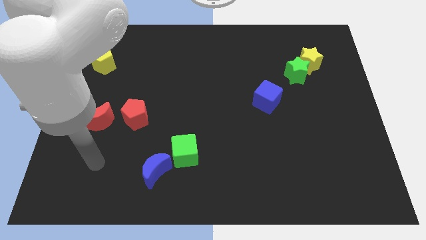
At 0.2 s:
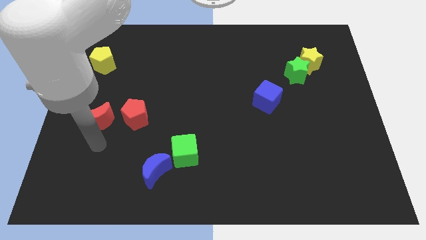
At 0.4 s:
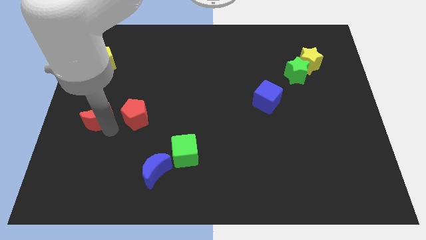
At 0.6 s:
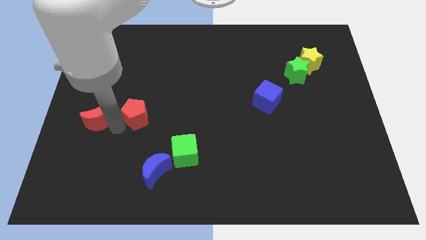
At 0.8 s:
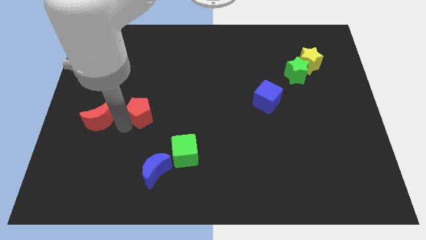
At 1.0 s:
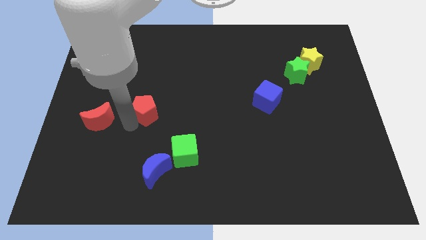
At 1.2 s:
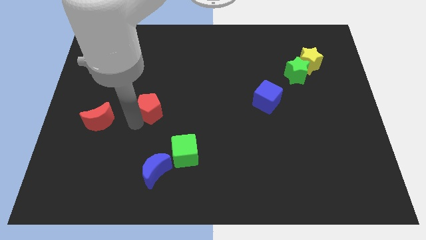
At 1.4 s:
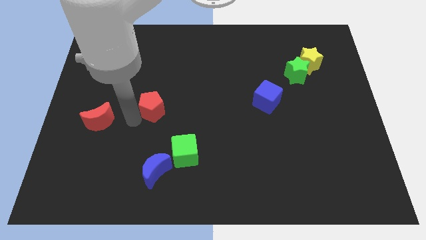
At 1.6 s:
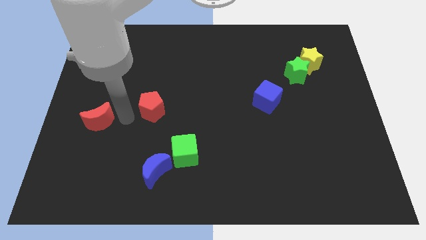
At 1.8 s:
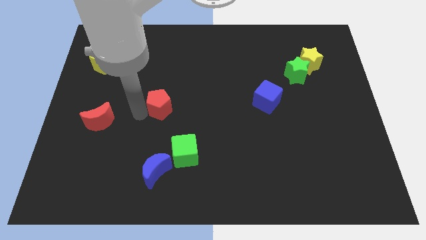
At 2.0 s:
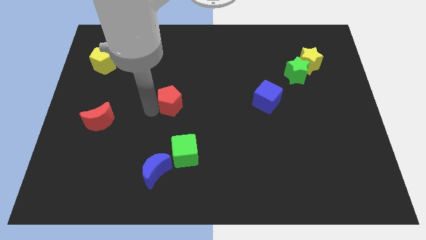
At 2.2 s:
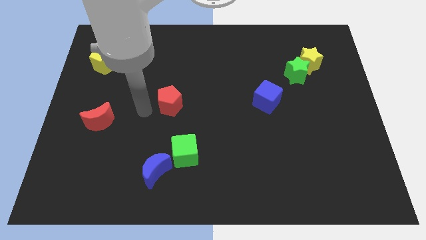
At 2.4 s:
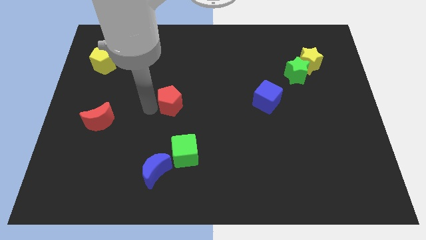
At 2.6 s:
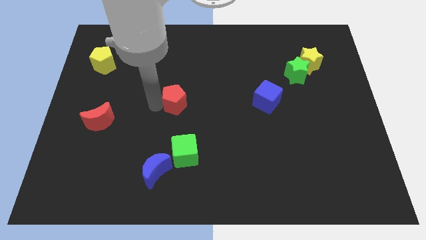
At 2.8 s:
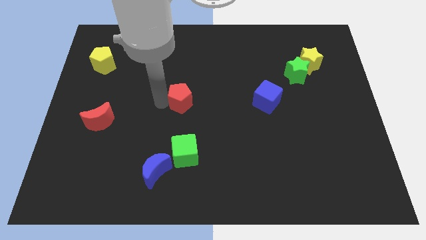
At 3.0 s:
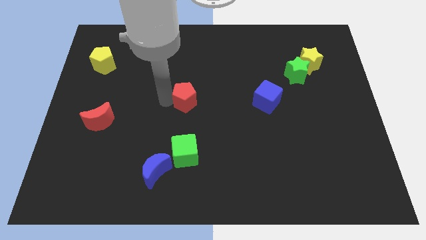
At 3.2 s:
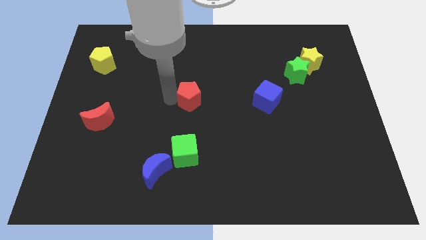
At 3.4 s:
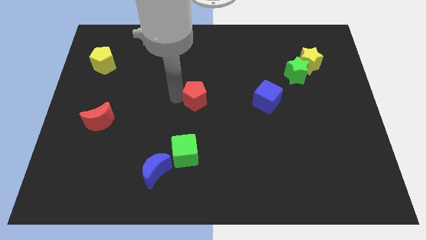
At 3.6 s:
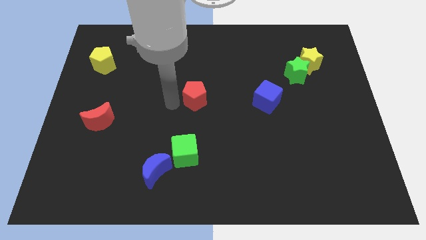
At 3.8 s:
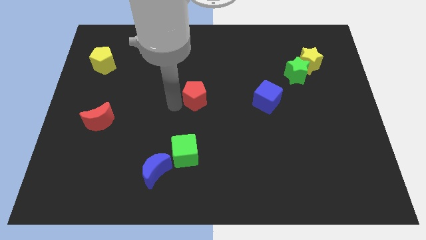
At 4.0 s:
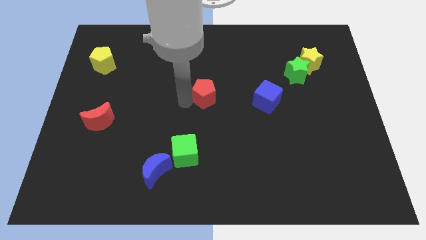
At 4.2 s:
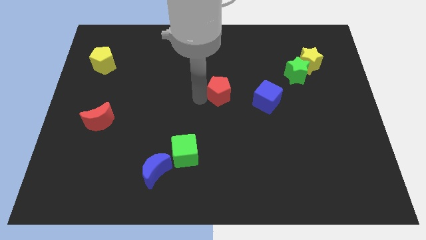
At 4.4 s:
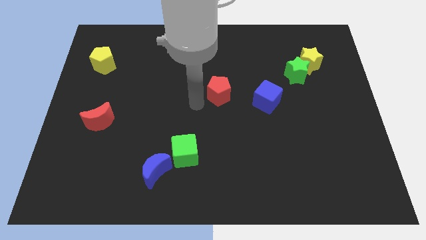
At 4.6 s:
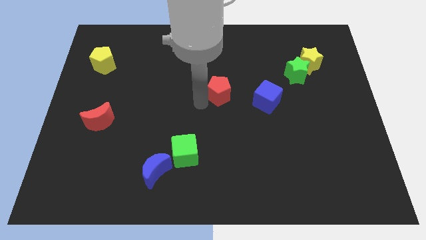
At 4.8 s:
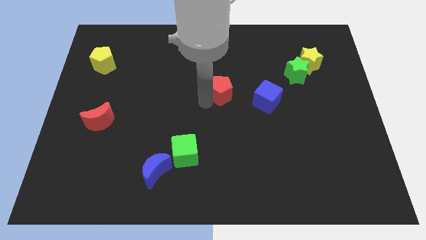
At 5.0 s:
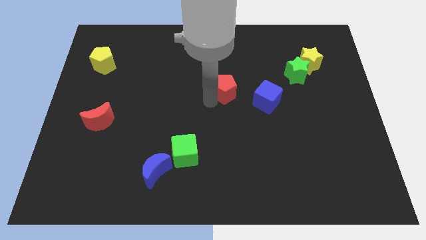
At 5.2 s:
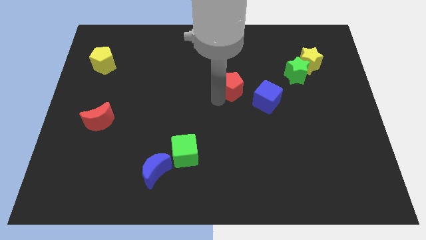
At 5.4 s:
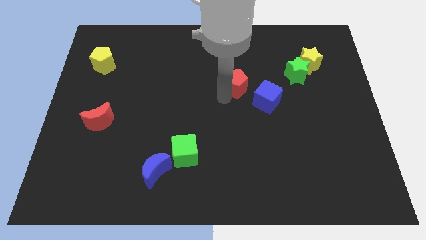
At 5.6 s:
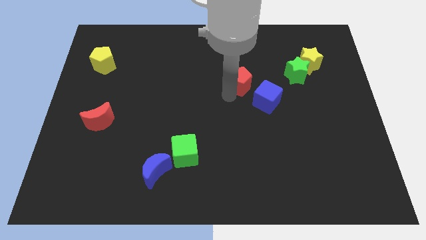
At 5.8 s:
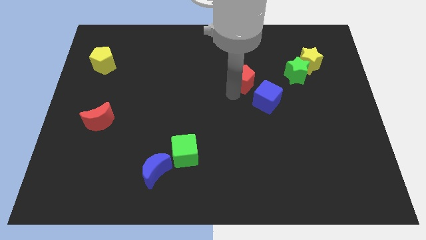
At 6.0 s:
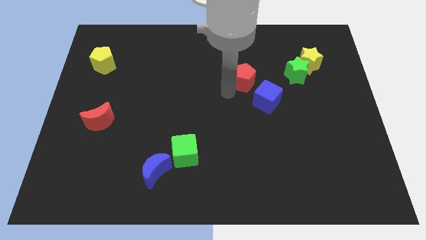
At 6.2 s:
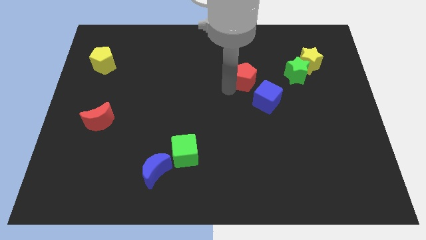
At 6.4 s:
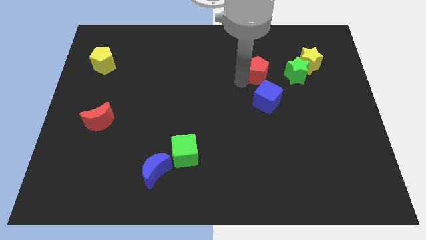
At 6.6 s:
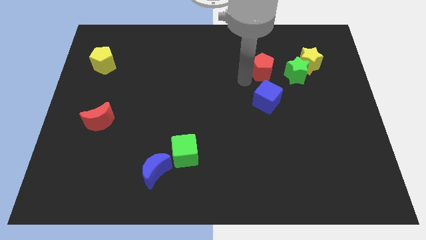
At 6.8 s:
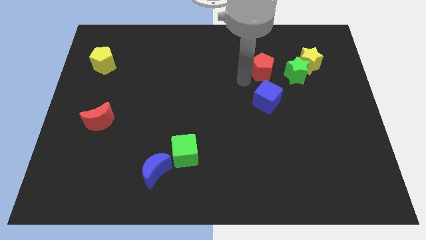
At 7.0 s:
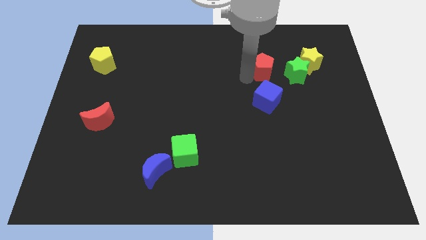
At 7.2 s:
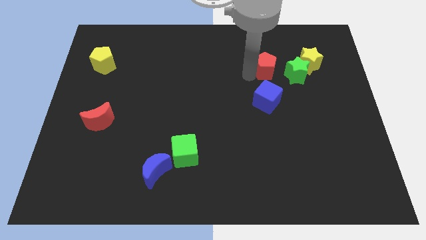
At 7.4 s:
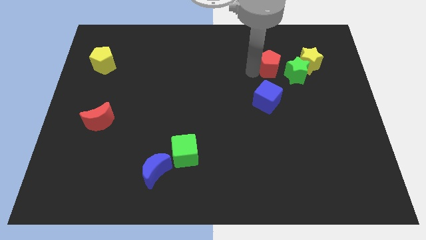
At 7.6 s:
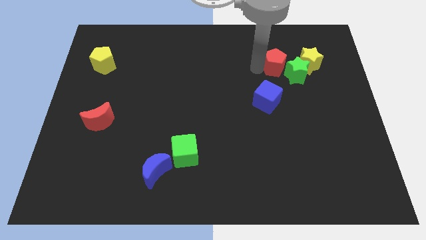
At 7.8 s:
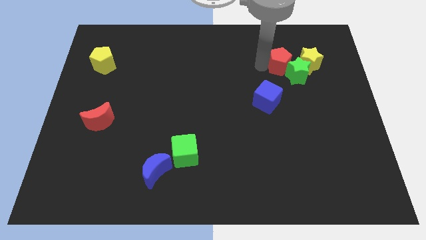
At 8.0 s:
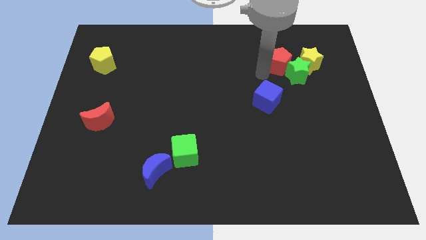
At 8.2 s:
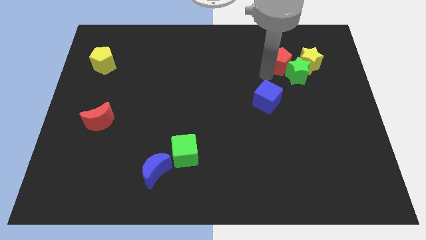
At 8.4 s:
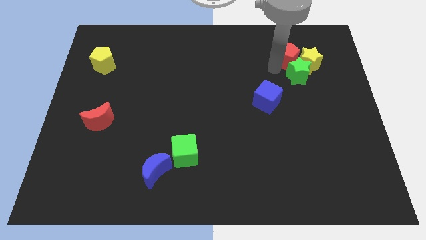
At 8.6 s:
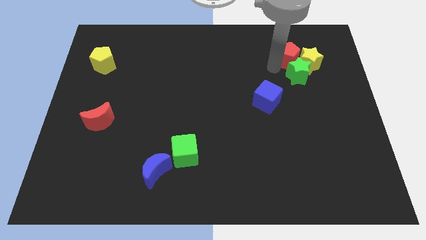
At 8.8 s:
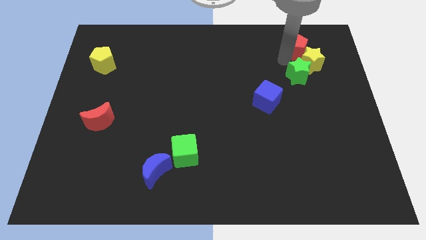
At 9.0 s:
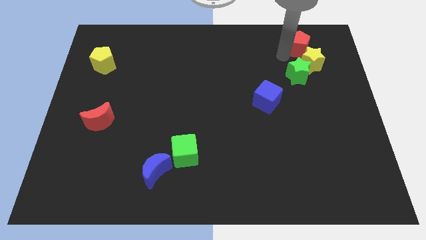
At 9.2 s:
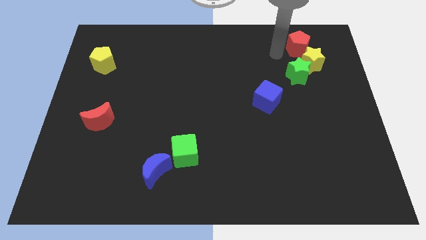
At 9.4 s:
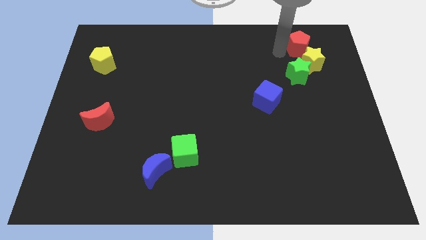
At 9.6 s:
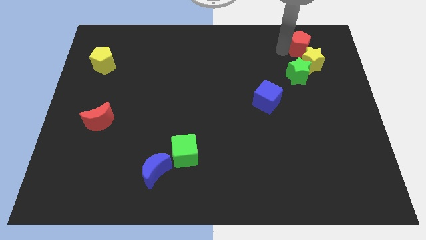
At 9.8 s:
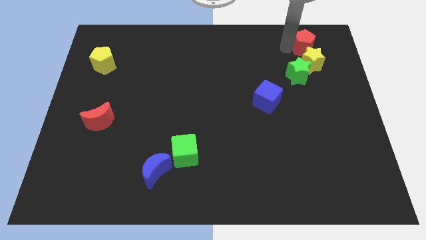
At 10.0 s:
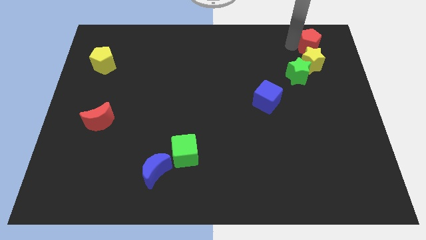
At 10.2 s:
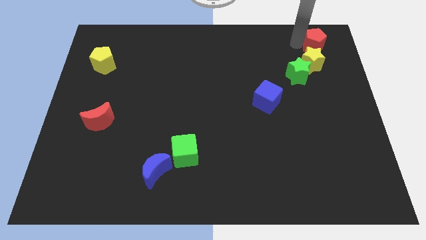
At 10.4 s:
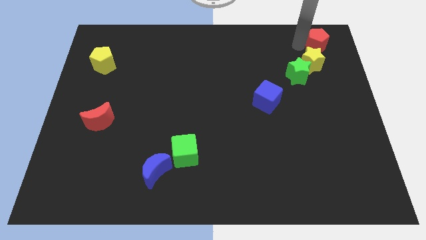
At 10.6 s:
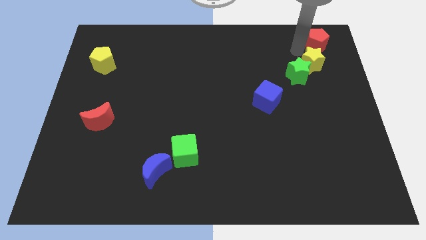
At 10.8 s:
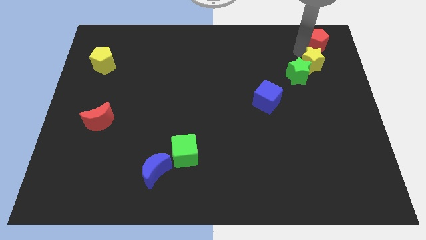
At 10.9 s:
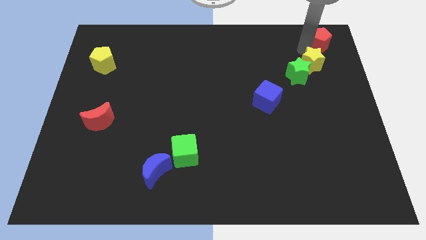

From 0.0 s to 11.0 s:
put the red pentagon to the top right of the board

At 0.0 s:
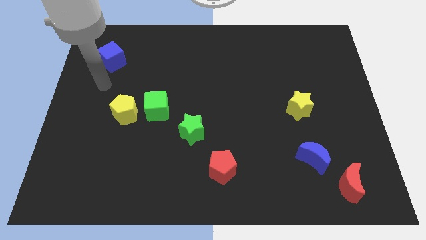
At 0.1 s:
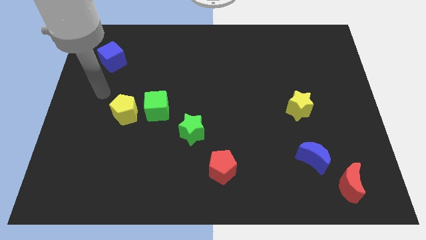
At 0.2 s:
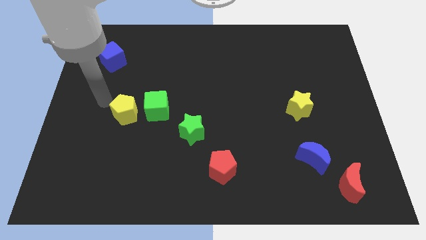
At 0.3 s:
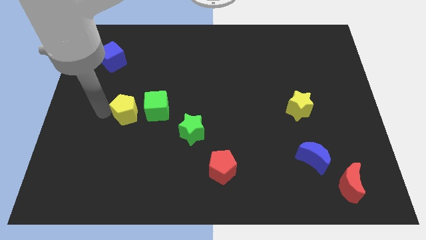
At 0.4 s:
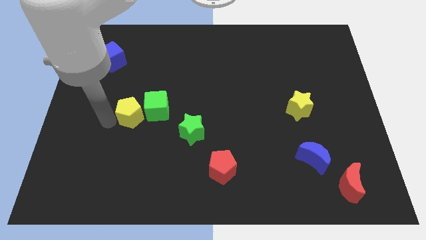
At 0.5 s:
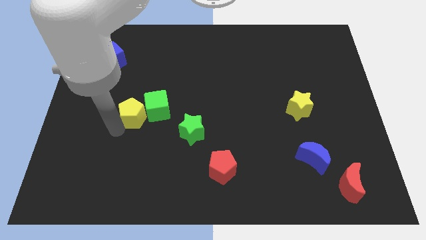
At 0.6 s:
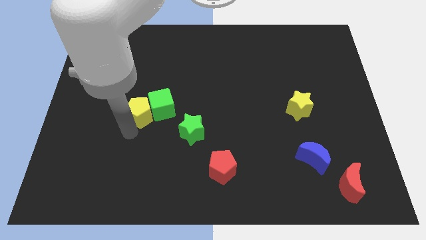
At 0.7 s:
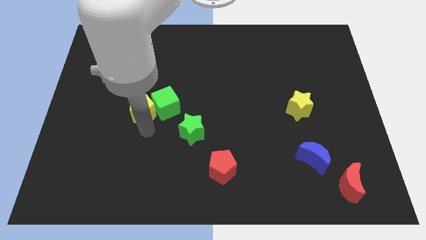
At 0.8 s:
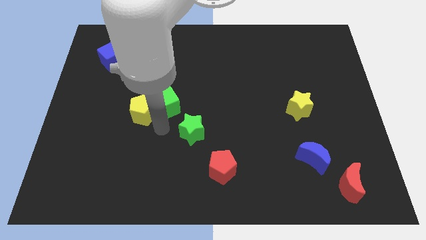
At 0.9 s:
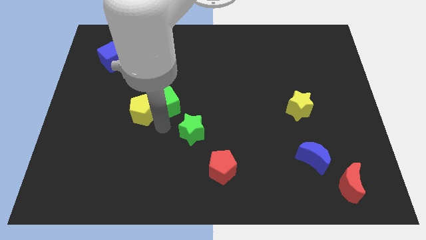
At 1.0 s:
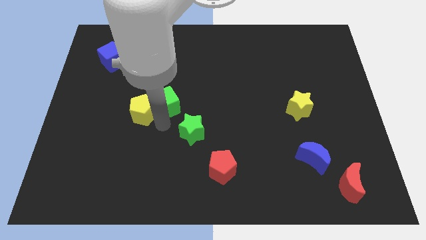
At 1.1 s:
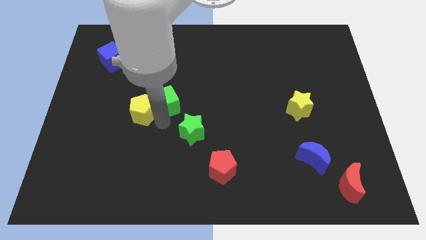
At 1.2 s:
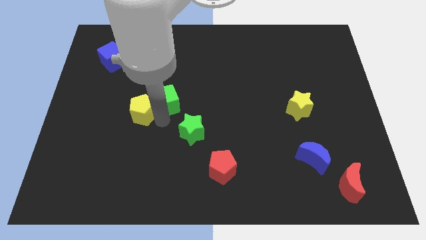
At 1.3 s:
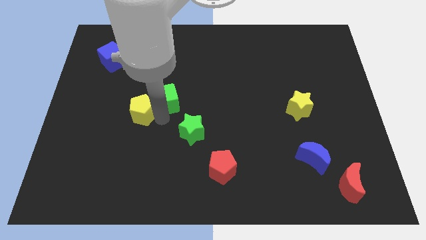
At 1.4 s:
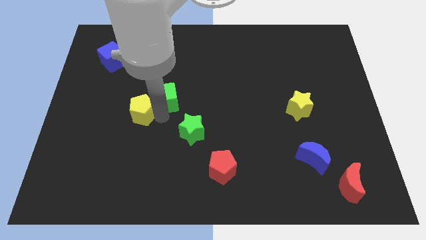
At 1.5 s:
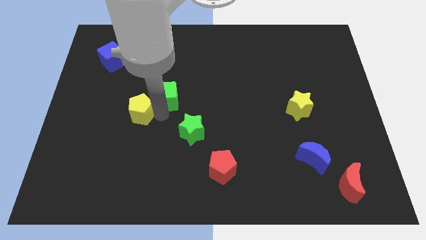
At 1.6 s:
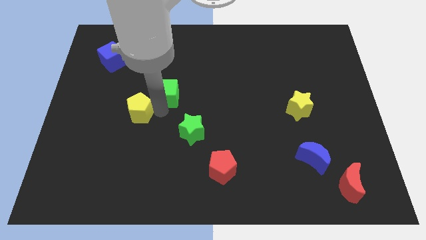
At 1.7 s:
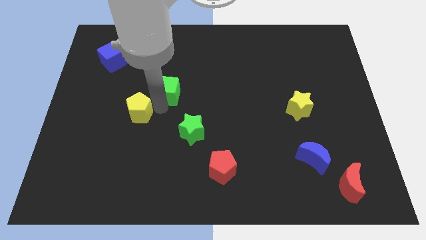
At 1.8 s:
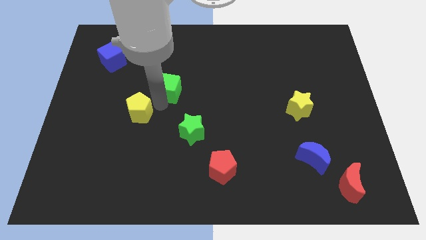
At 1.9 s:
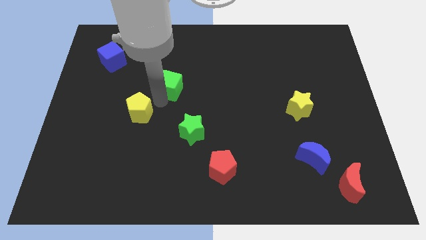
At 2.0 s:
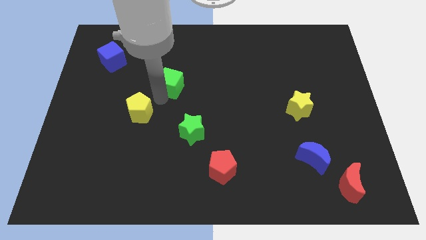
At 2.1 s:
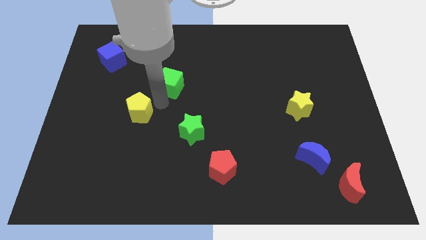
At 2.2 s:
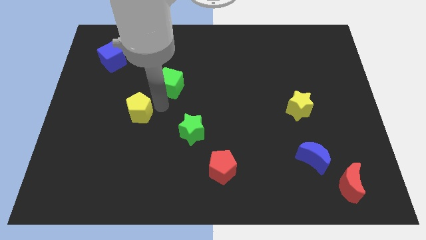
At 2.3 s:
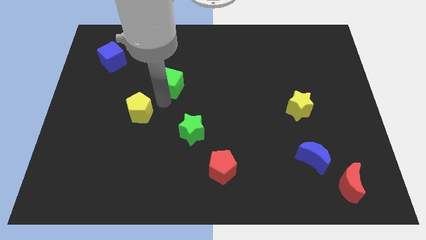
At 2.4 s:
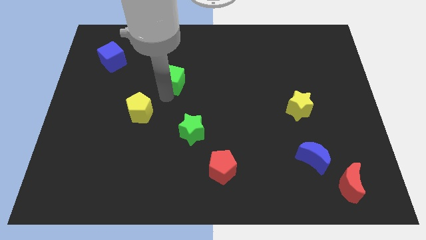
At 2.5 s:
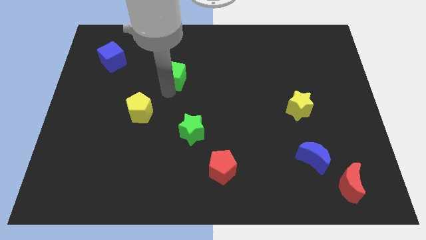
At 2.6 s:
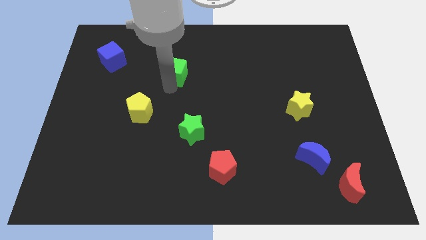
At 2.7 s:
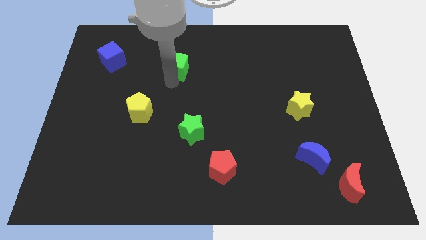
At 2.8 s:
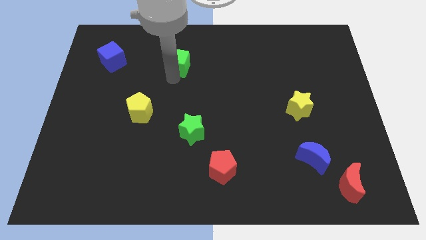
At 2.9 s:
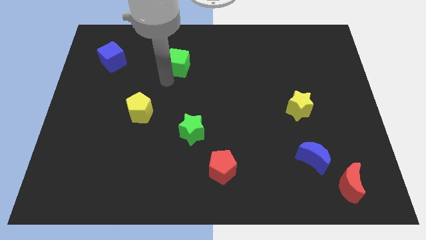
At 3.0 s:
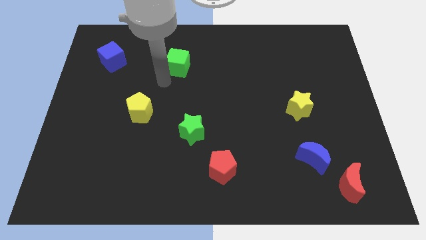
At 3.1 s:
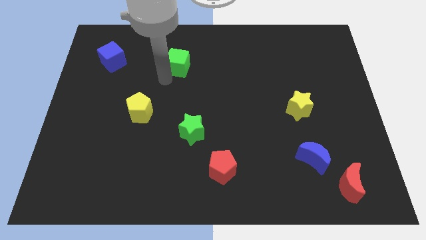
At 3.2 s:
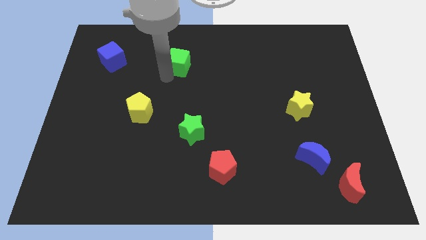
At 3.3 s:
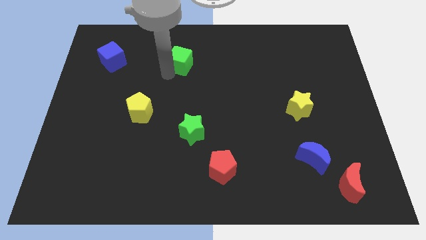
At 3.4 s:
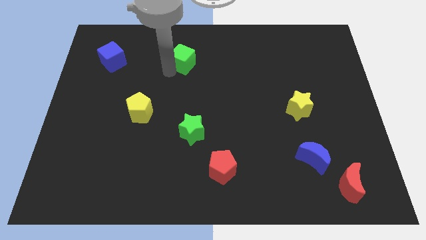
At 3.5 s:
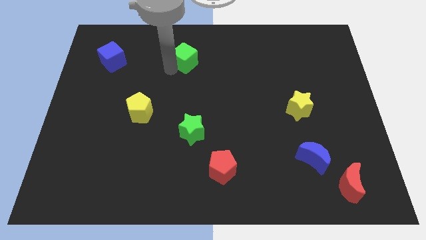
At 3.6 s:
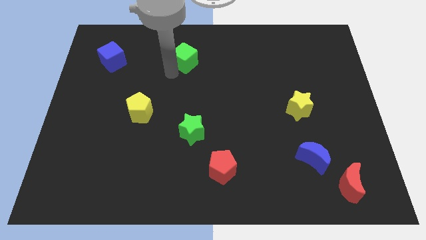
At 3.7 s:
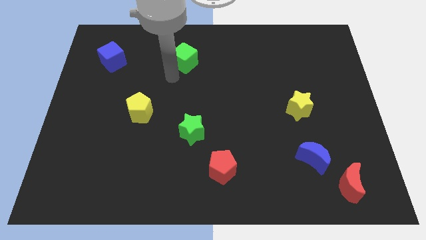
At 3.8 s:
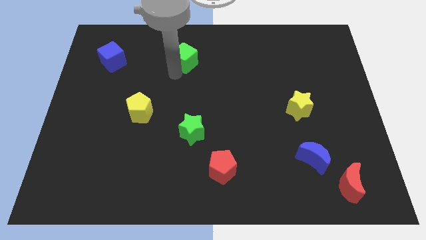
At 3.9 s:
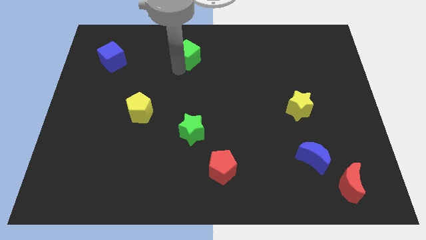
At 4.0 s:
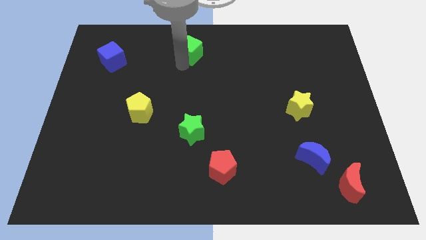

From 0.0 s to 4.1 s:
put the green cube to the top side
